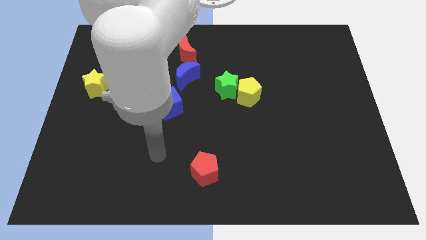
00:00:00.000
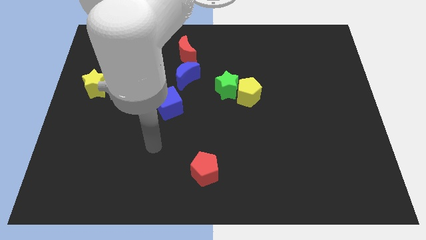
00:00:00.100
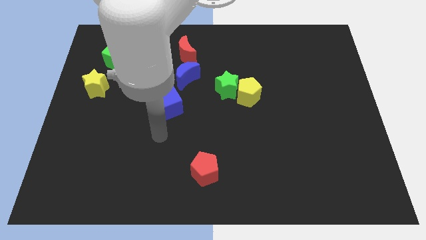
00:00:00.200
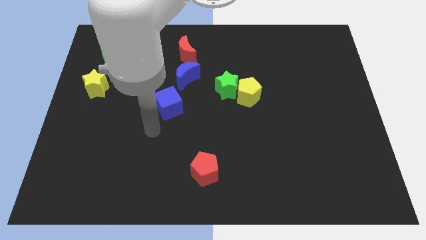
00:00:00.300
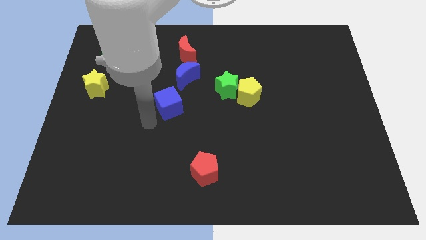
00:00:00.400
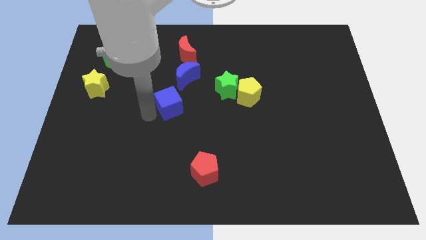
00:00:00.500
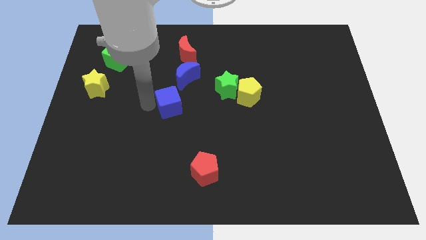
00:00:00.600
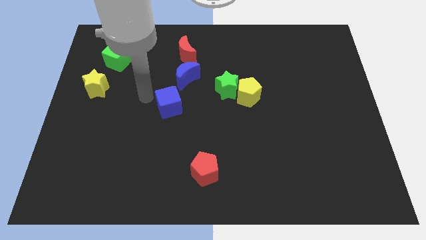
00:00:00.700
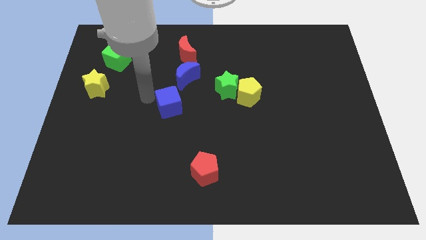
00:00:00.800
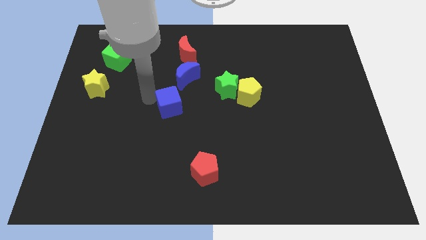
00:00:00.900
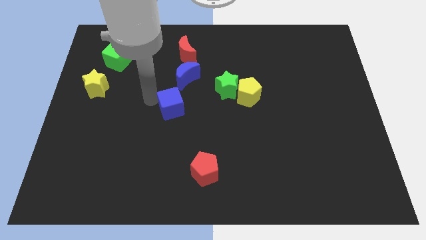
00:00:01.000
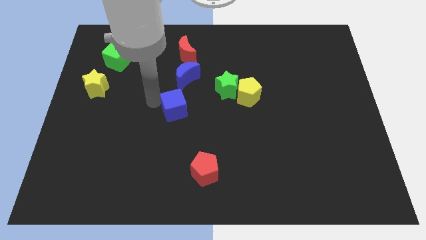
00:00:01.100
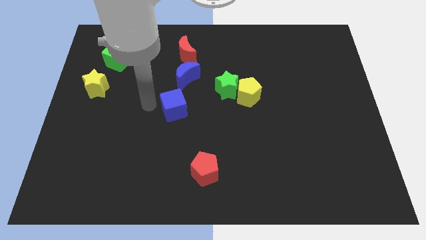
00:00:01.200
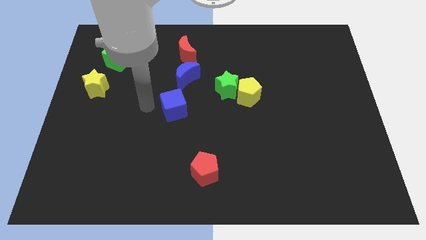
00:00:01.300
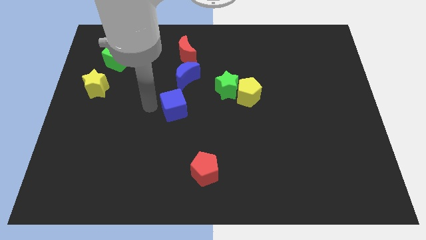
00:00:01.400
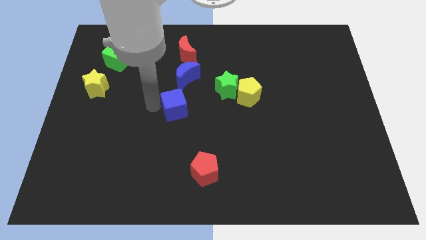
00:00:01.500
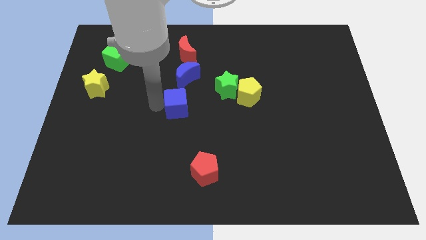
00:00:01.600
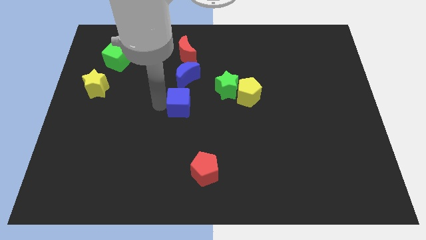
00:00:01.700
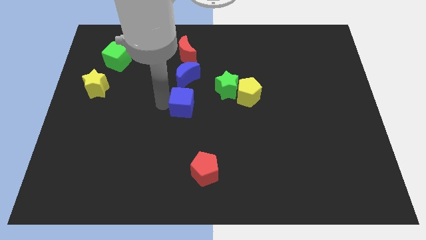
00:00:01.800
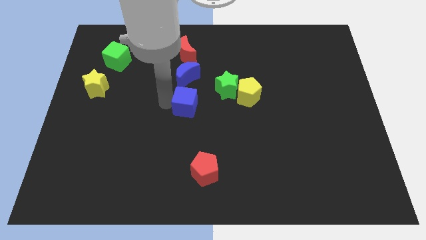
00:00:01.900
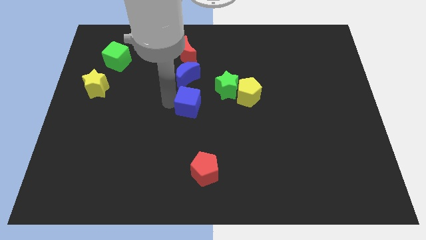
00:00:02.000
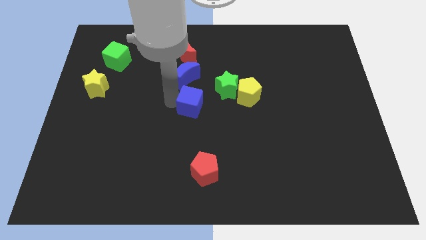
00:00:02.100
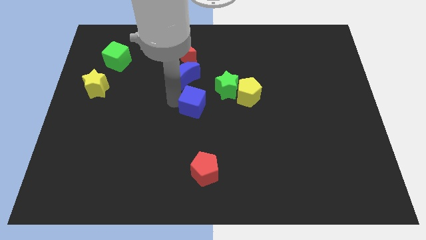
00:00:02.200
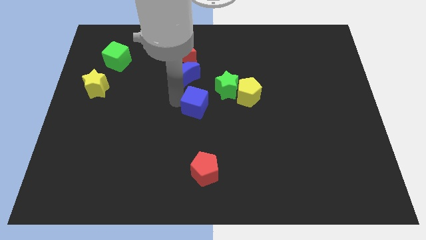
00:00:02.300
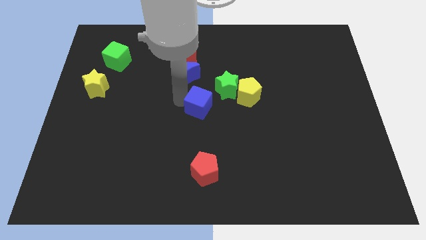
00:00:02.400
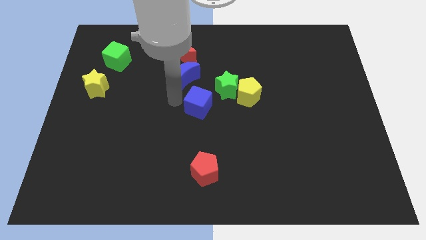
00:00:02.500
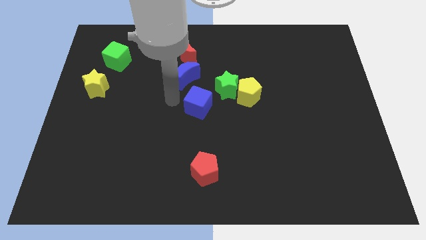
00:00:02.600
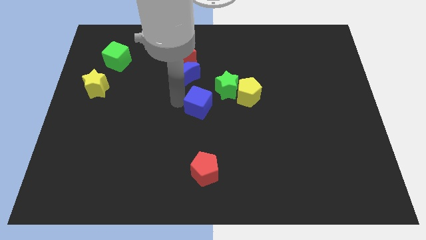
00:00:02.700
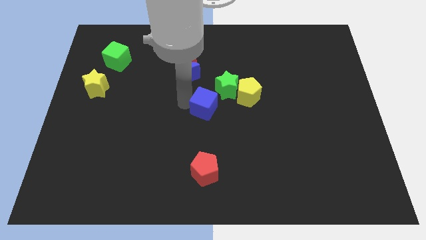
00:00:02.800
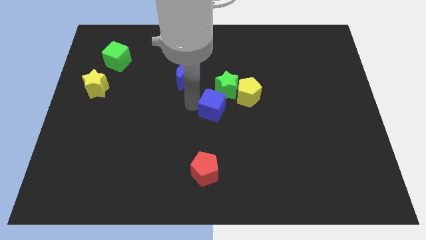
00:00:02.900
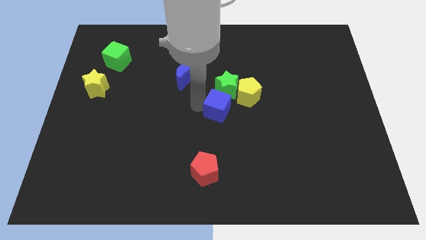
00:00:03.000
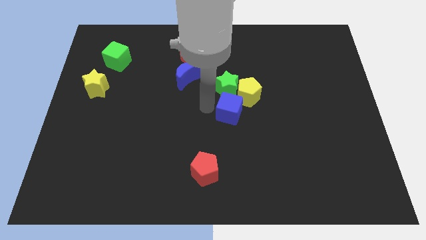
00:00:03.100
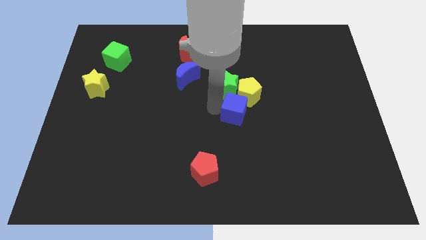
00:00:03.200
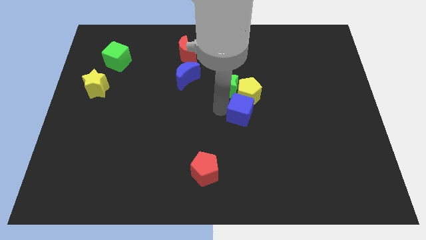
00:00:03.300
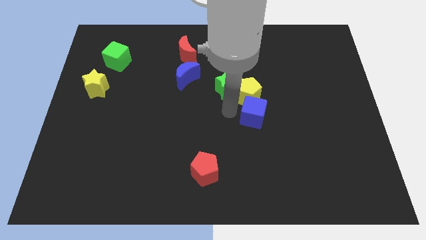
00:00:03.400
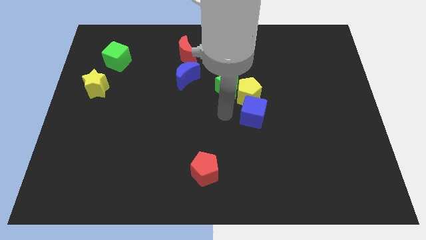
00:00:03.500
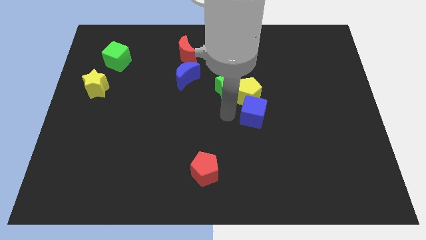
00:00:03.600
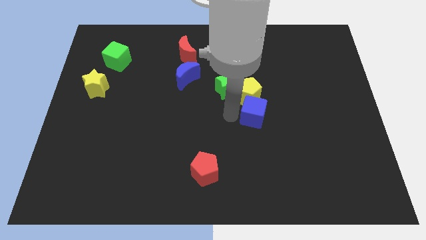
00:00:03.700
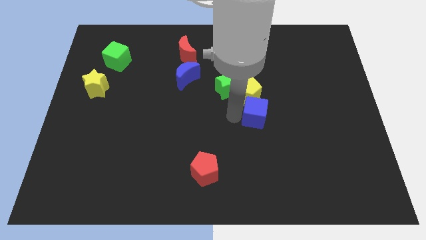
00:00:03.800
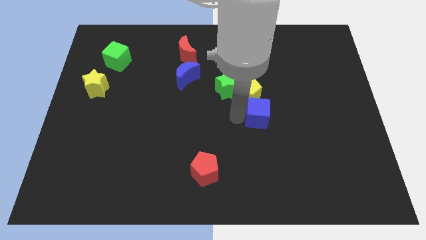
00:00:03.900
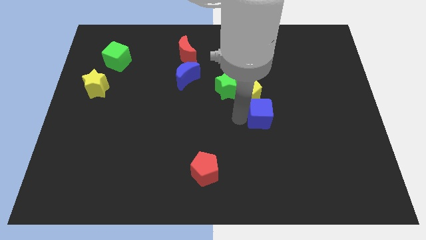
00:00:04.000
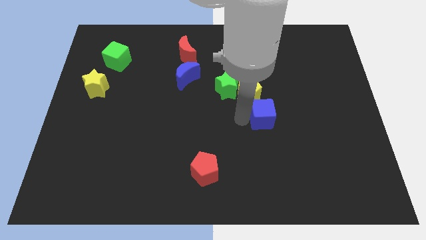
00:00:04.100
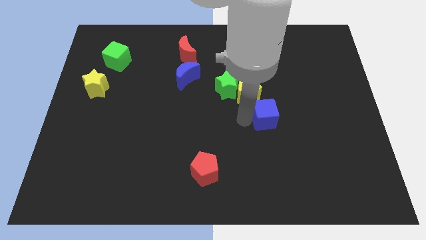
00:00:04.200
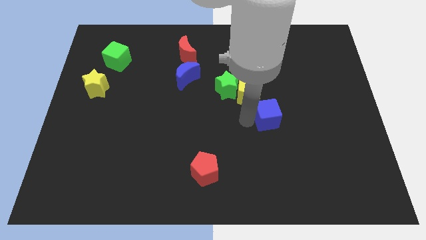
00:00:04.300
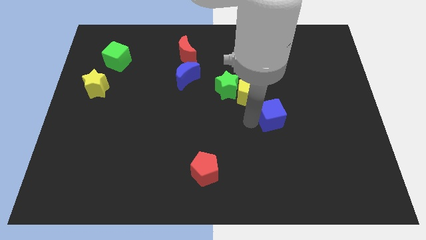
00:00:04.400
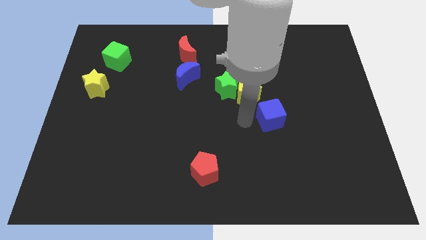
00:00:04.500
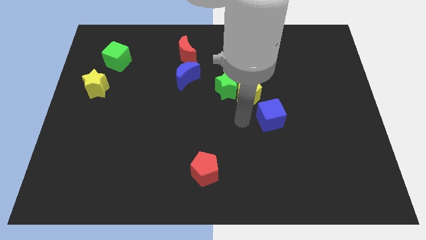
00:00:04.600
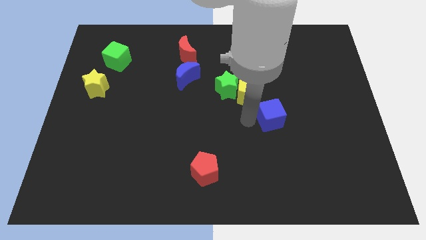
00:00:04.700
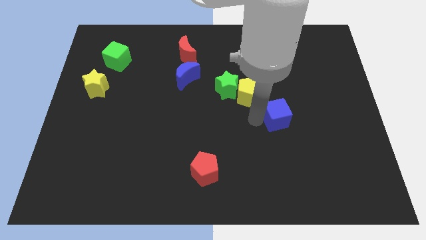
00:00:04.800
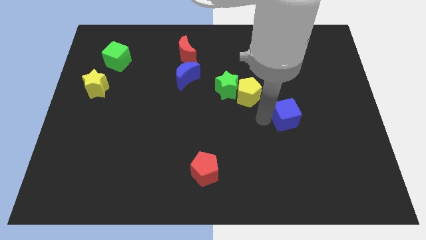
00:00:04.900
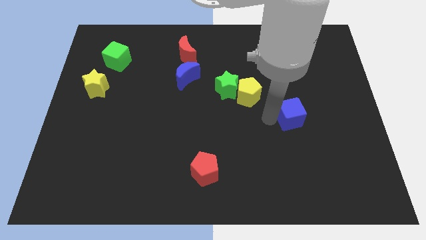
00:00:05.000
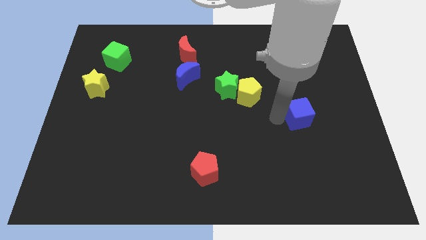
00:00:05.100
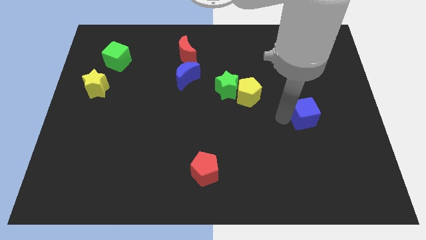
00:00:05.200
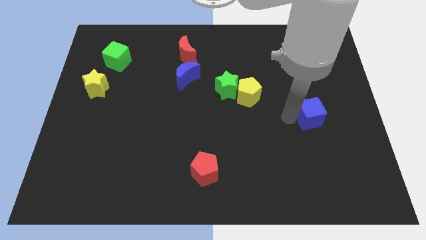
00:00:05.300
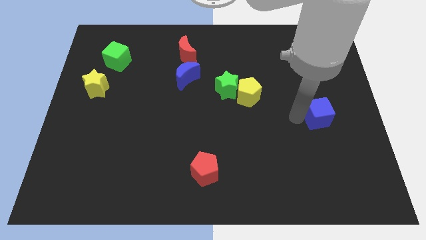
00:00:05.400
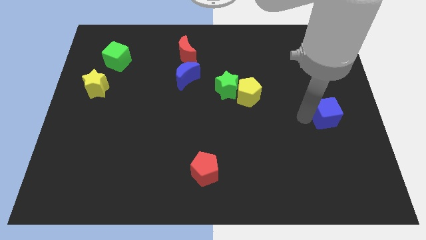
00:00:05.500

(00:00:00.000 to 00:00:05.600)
move the blue cube to the right side of the board

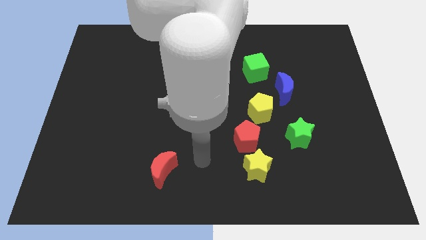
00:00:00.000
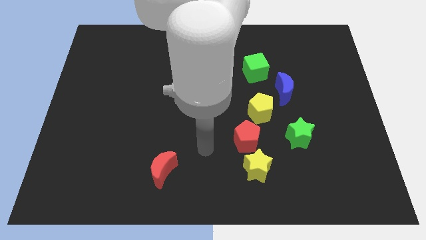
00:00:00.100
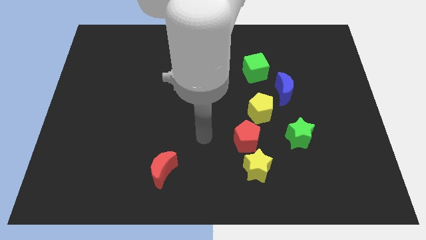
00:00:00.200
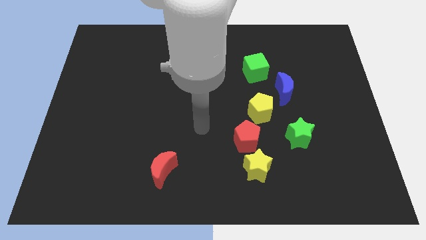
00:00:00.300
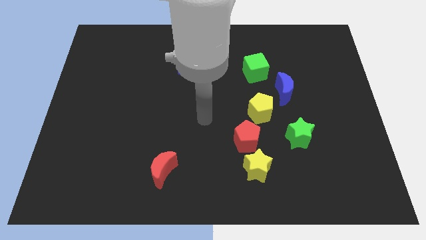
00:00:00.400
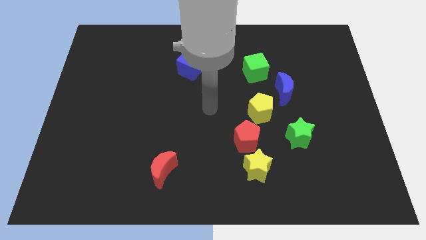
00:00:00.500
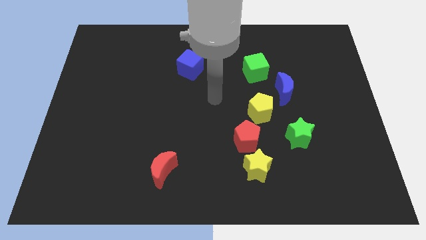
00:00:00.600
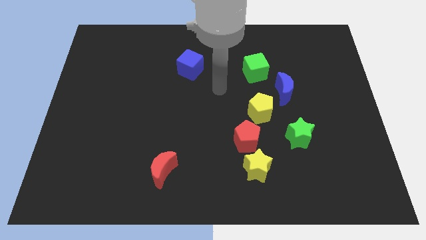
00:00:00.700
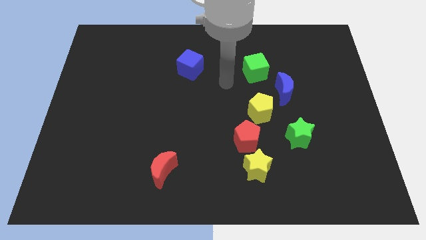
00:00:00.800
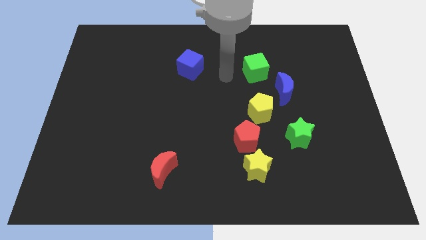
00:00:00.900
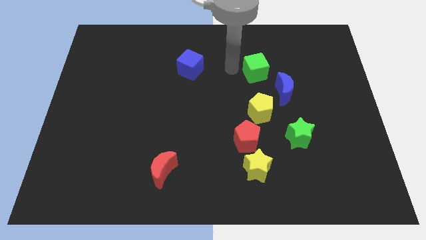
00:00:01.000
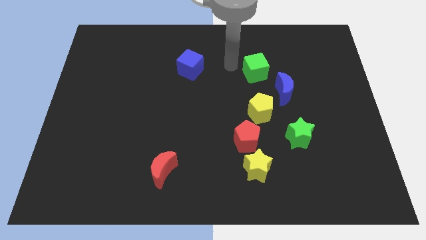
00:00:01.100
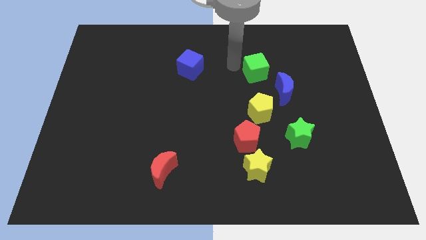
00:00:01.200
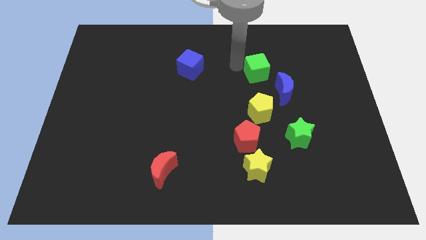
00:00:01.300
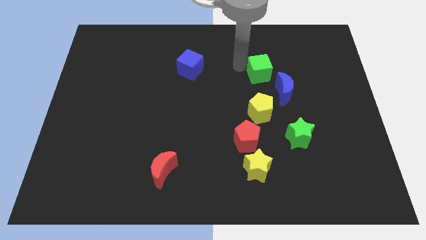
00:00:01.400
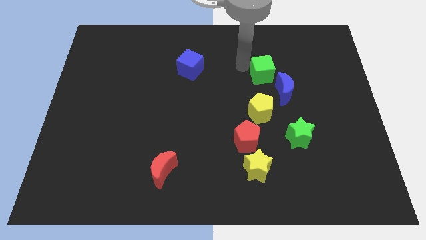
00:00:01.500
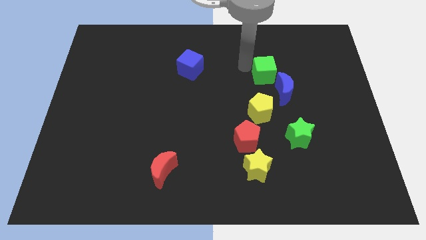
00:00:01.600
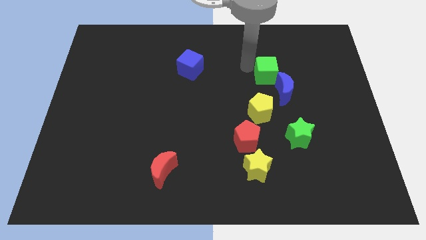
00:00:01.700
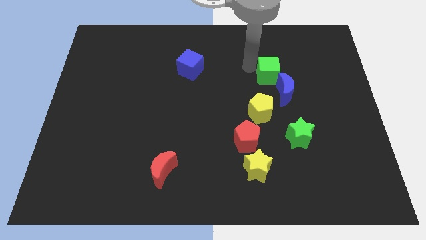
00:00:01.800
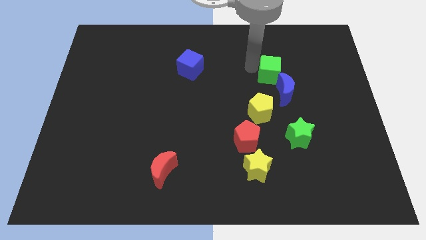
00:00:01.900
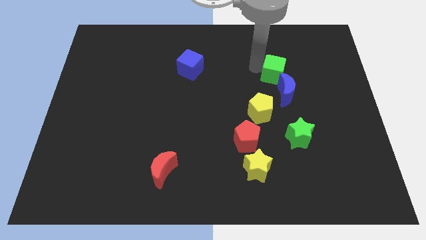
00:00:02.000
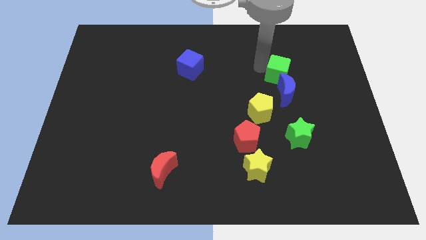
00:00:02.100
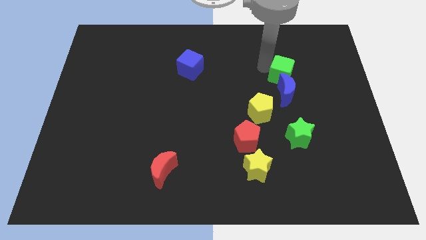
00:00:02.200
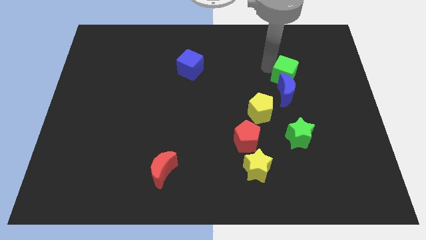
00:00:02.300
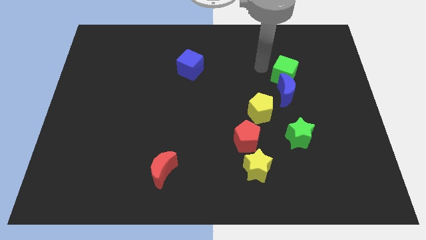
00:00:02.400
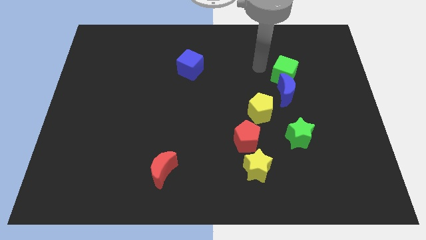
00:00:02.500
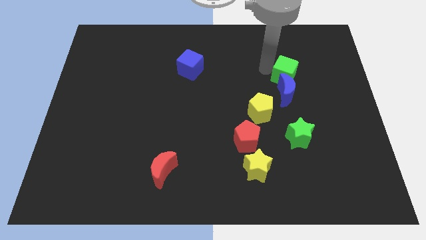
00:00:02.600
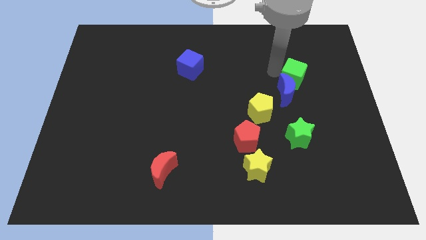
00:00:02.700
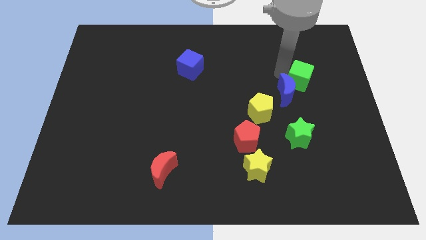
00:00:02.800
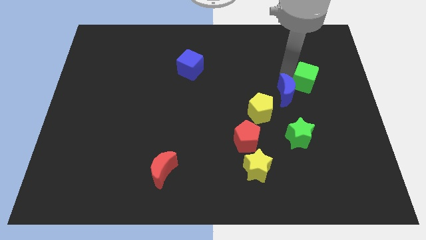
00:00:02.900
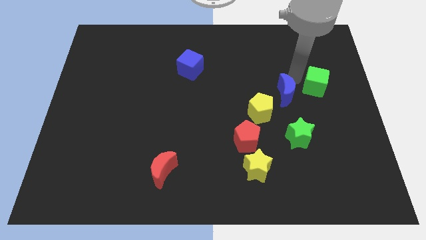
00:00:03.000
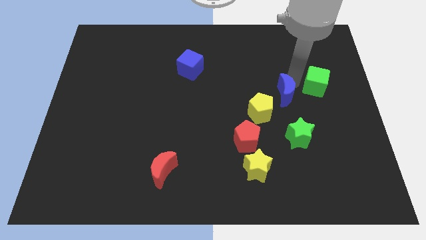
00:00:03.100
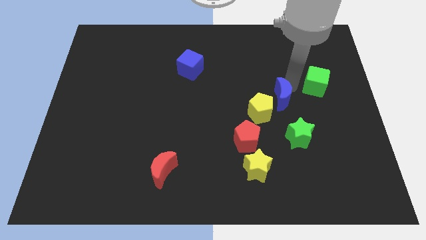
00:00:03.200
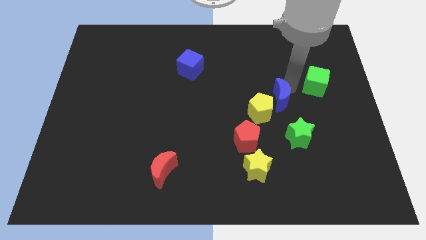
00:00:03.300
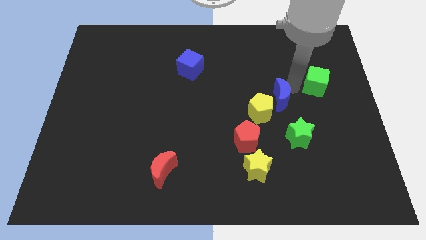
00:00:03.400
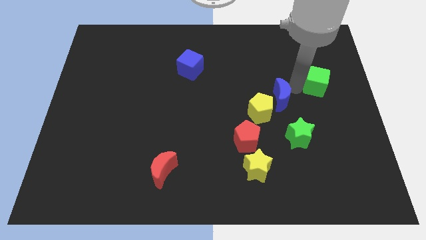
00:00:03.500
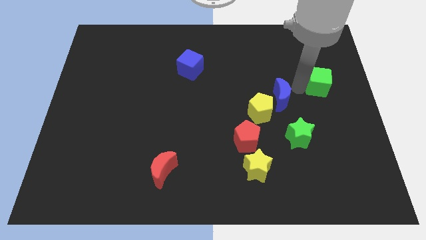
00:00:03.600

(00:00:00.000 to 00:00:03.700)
slide the green cube to the center right
